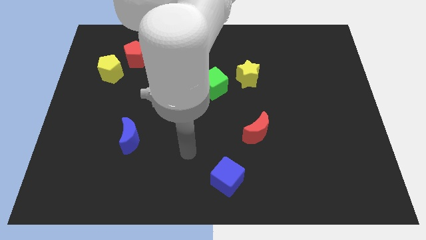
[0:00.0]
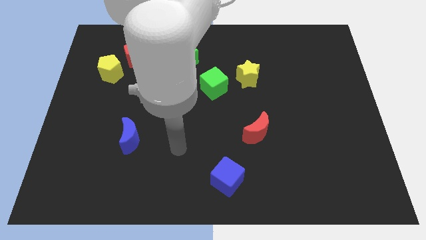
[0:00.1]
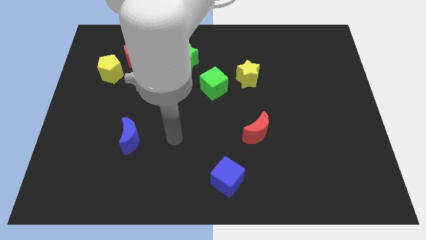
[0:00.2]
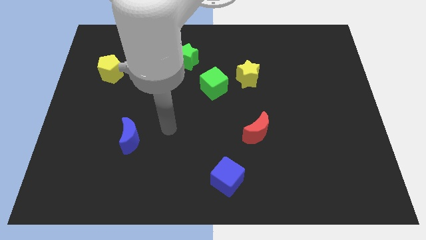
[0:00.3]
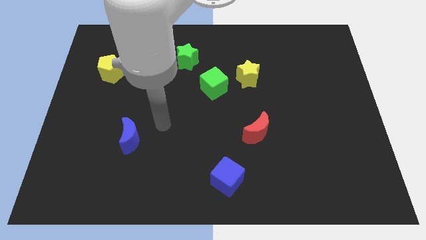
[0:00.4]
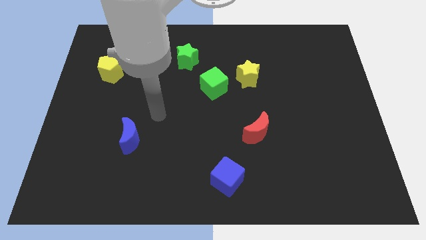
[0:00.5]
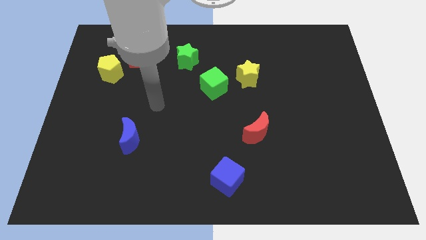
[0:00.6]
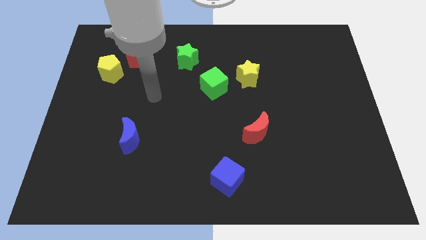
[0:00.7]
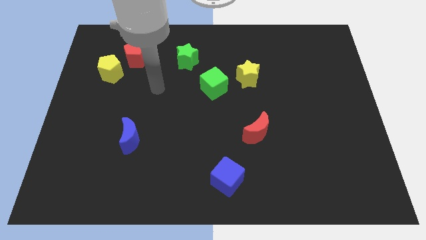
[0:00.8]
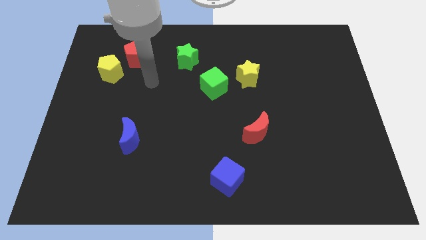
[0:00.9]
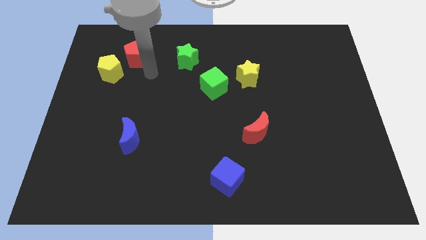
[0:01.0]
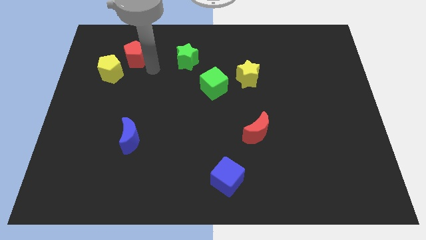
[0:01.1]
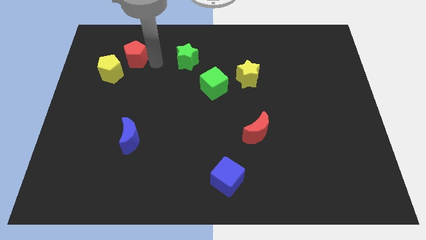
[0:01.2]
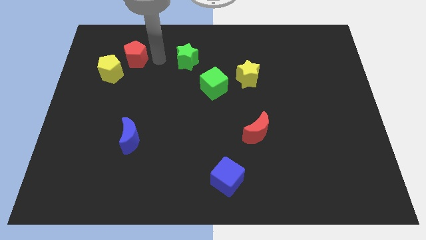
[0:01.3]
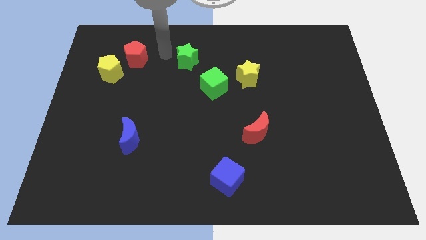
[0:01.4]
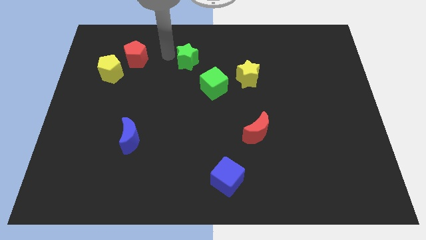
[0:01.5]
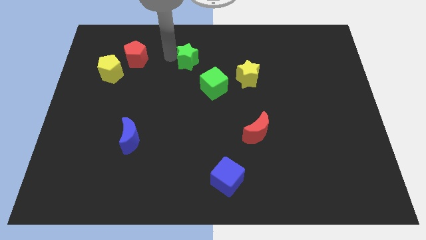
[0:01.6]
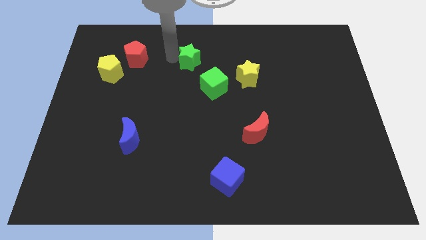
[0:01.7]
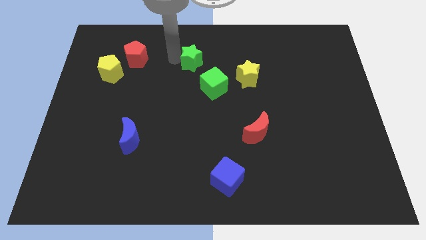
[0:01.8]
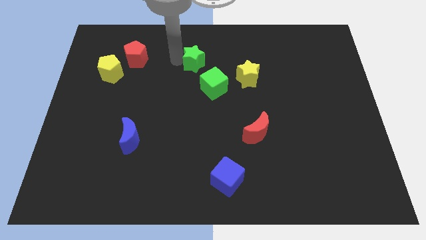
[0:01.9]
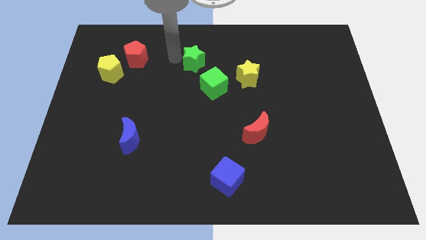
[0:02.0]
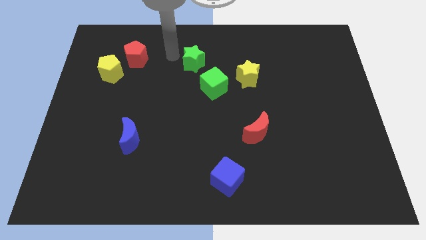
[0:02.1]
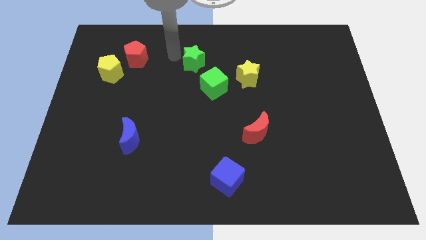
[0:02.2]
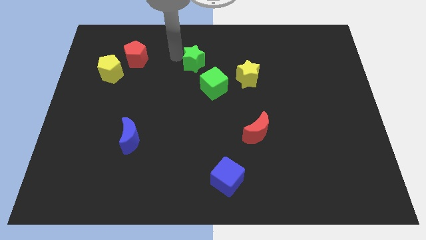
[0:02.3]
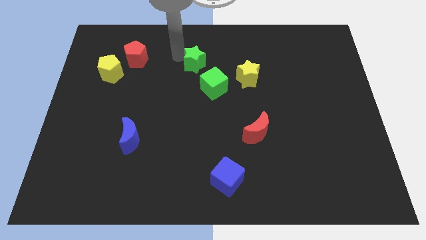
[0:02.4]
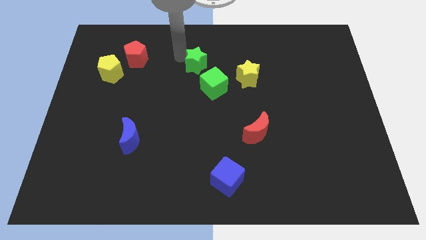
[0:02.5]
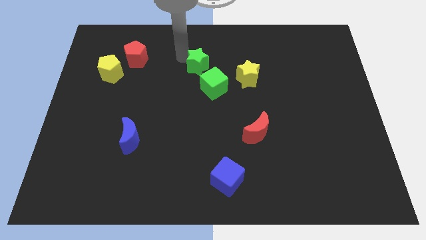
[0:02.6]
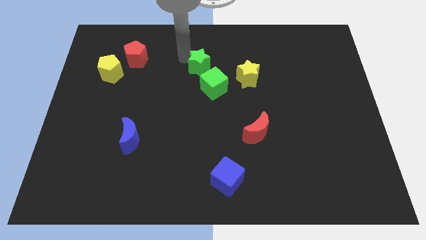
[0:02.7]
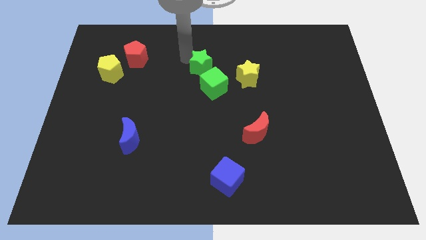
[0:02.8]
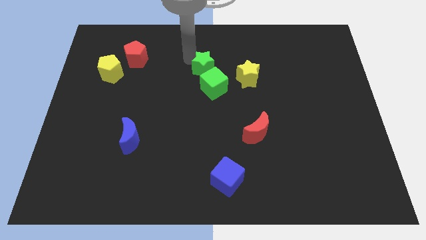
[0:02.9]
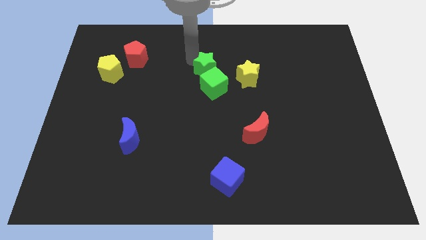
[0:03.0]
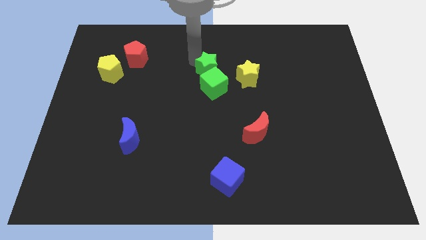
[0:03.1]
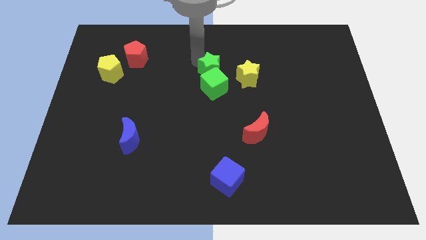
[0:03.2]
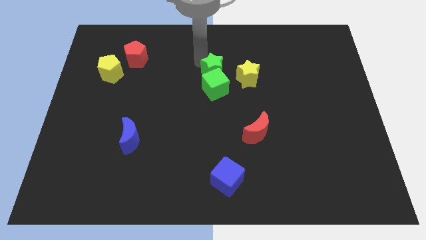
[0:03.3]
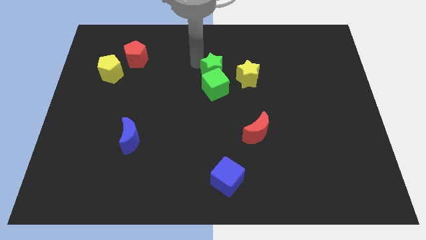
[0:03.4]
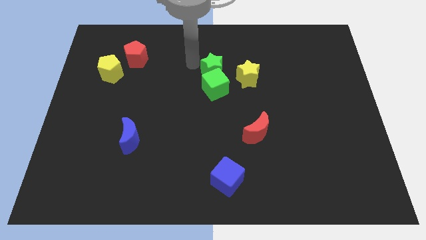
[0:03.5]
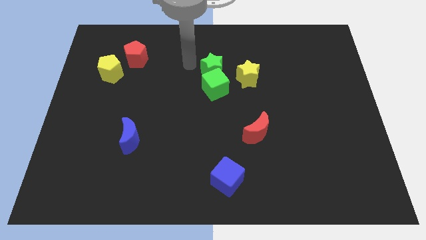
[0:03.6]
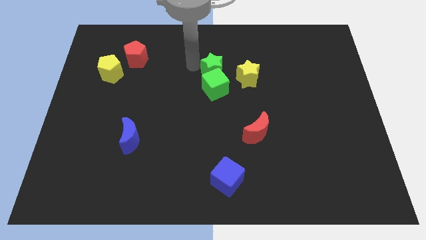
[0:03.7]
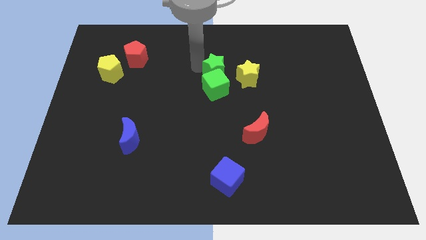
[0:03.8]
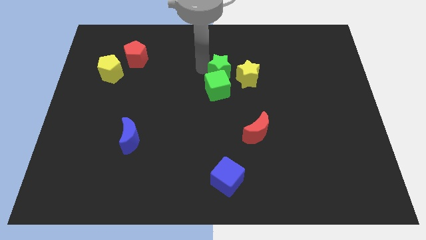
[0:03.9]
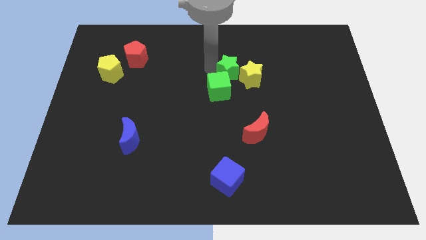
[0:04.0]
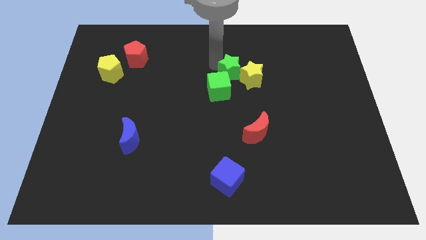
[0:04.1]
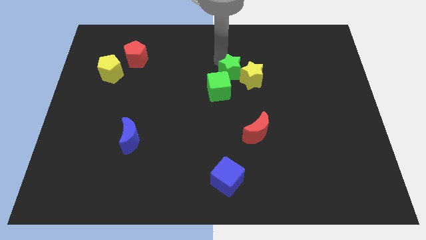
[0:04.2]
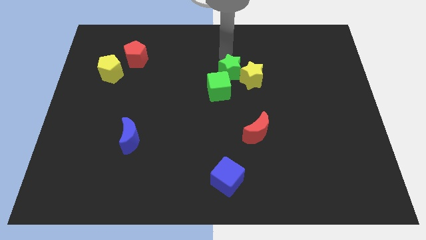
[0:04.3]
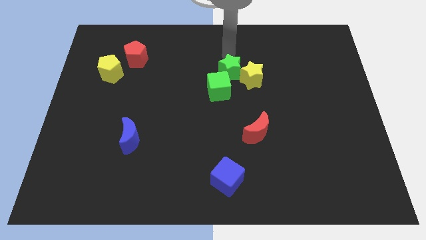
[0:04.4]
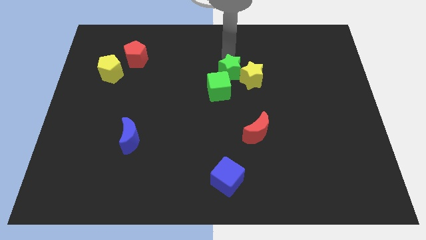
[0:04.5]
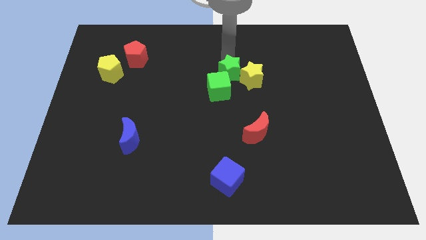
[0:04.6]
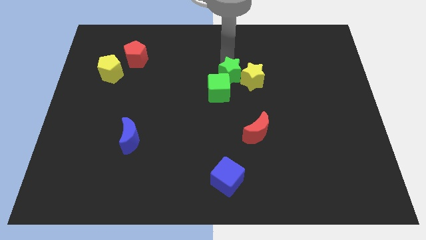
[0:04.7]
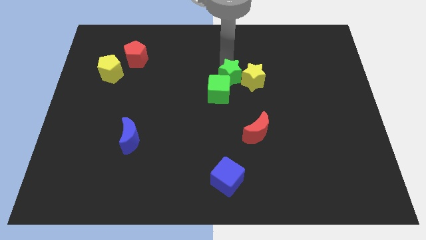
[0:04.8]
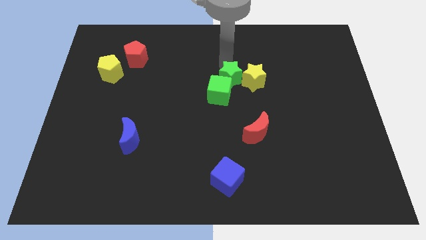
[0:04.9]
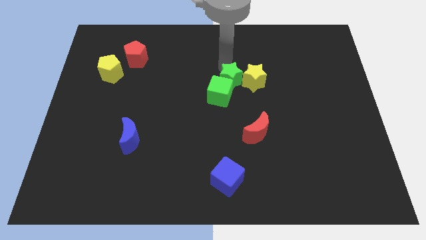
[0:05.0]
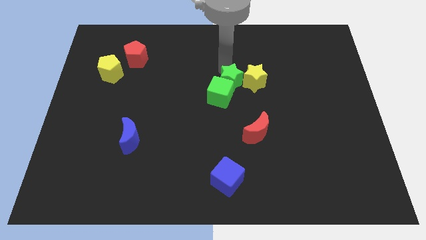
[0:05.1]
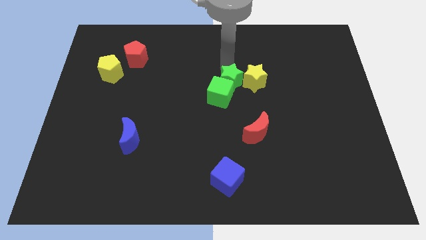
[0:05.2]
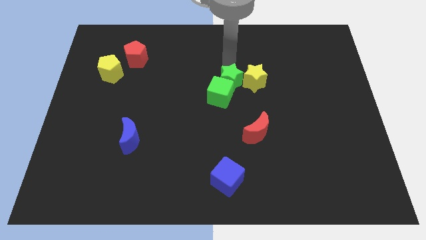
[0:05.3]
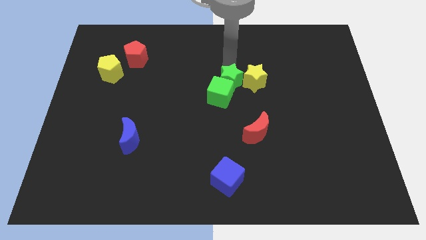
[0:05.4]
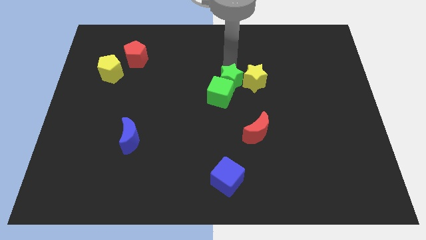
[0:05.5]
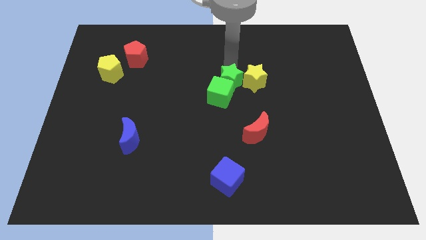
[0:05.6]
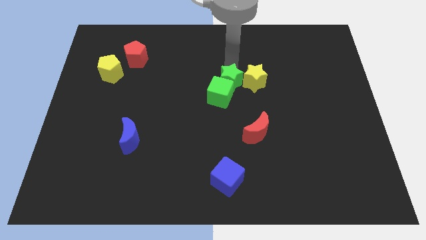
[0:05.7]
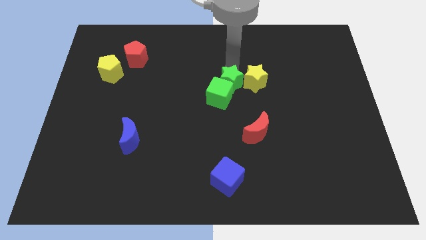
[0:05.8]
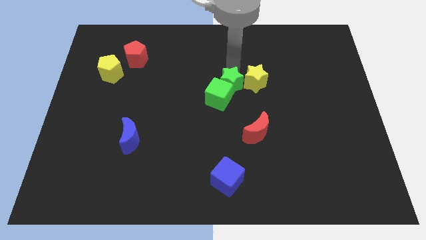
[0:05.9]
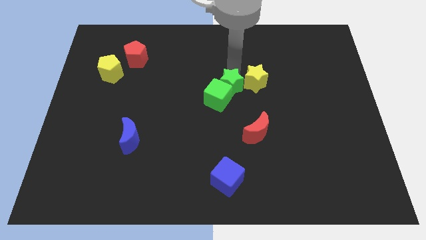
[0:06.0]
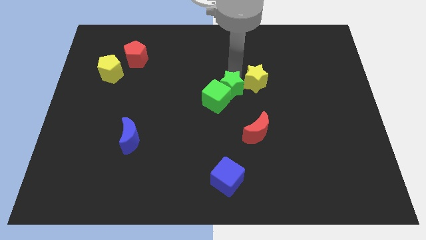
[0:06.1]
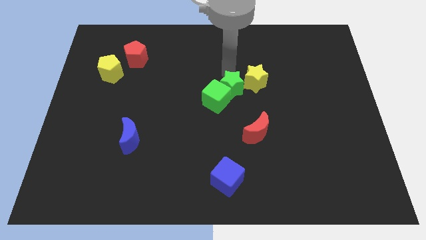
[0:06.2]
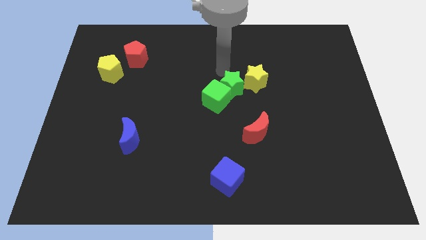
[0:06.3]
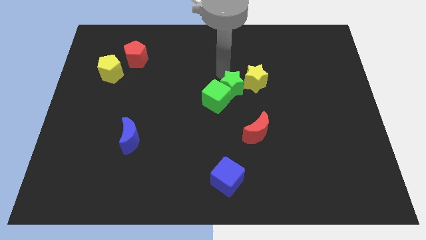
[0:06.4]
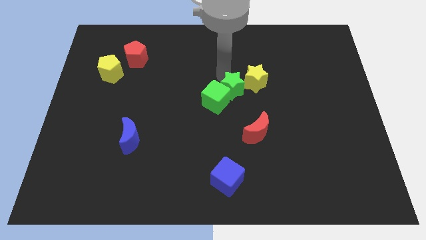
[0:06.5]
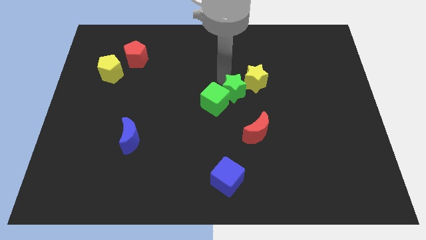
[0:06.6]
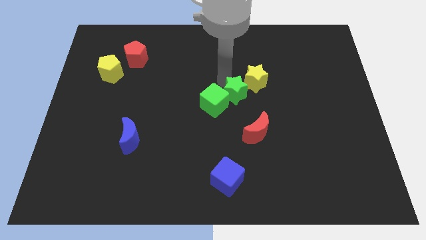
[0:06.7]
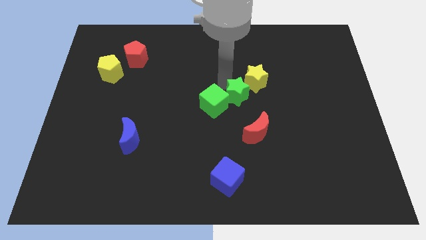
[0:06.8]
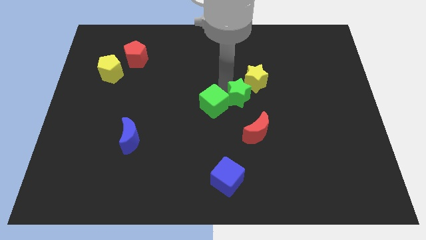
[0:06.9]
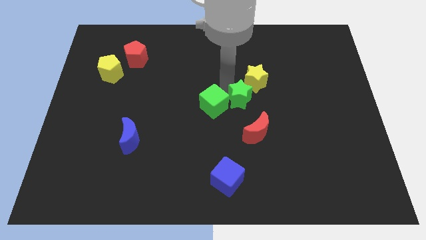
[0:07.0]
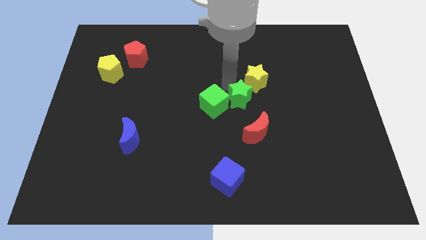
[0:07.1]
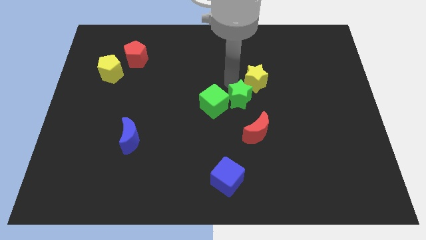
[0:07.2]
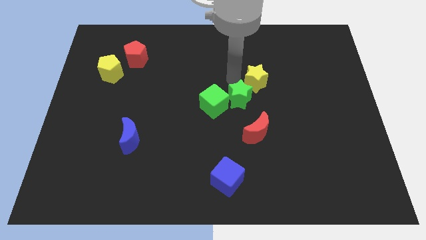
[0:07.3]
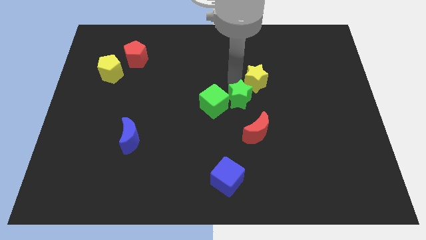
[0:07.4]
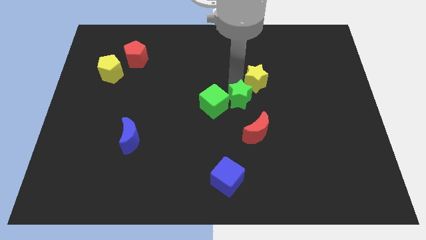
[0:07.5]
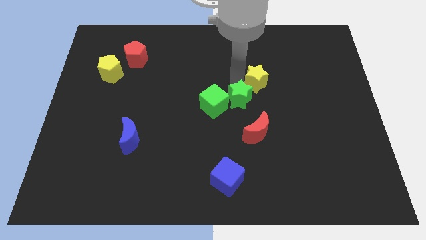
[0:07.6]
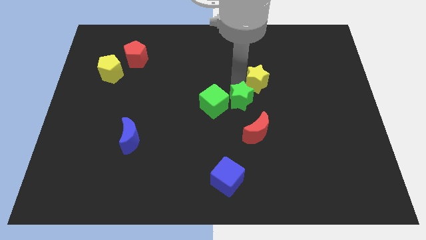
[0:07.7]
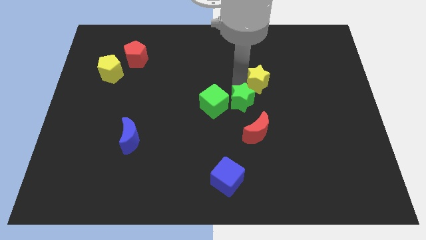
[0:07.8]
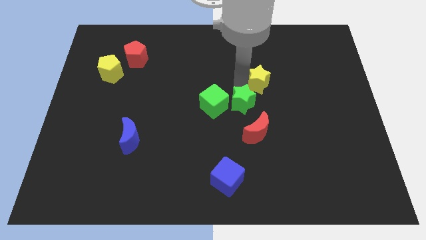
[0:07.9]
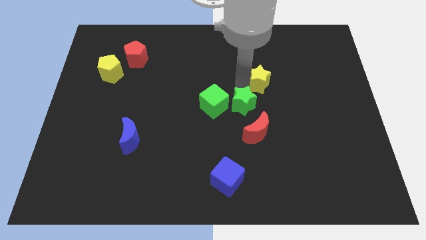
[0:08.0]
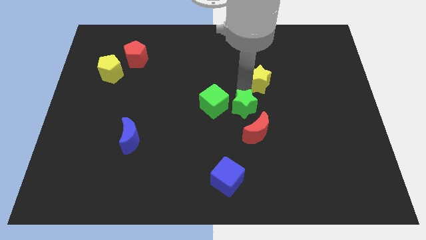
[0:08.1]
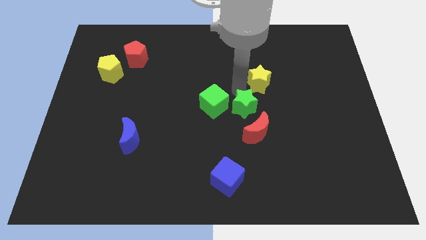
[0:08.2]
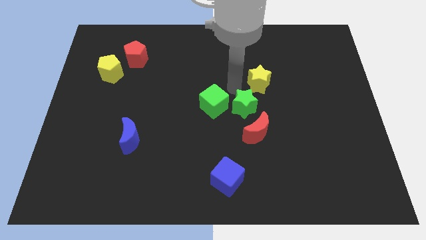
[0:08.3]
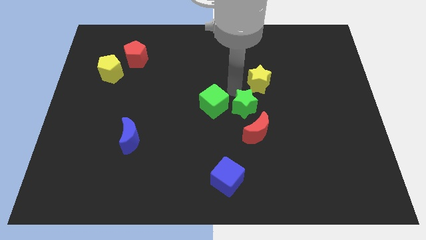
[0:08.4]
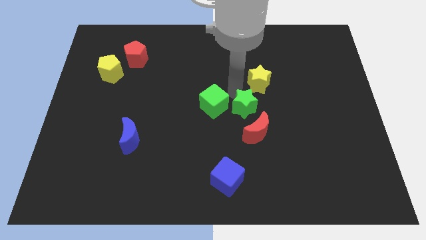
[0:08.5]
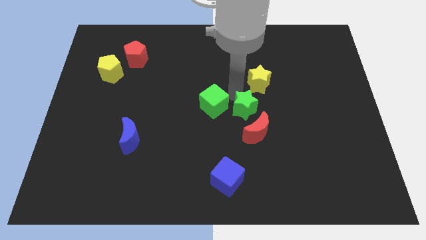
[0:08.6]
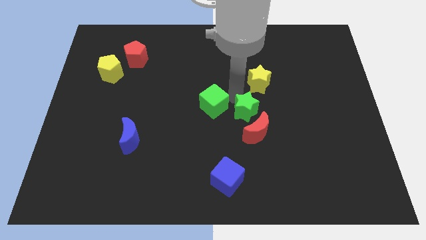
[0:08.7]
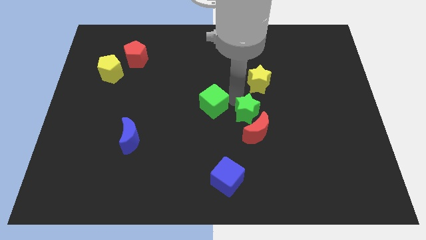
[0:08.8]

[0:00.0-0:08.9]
move the green star next to the red moon
